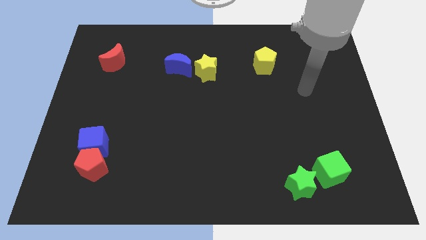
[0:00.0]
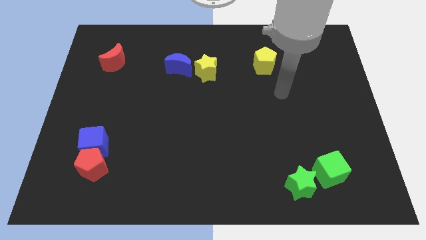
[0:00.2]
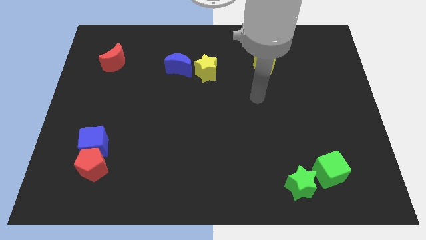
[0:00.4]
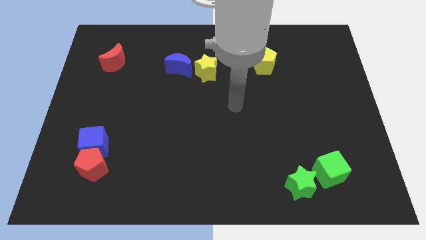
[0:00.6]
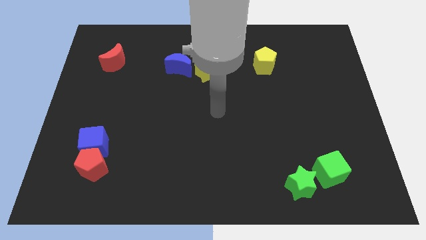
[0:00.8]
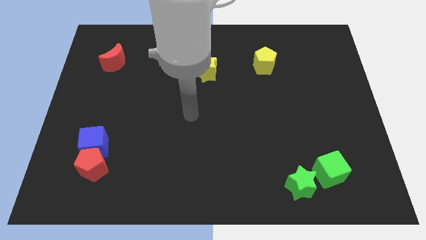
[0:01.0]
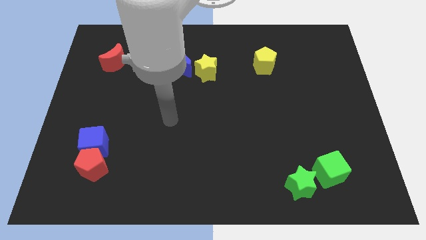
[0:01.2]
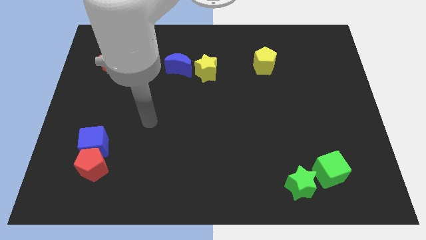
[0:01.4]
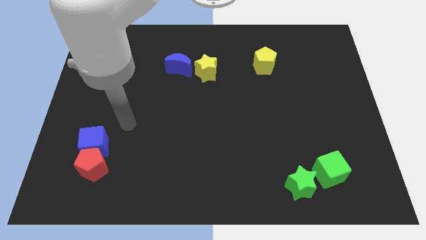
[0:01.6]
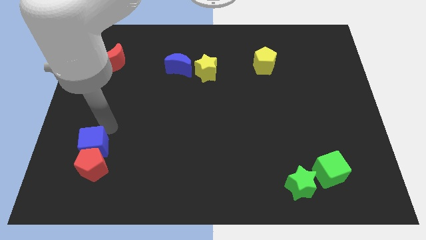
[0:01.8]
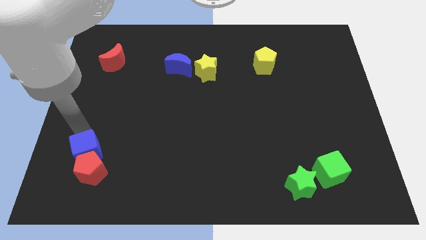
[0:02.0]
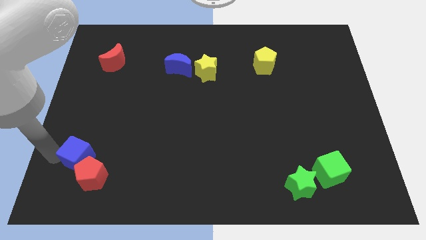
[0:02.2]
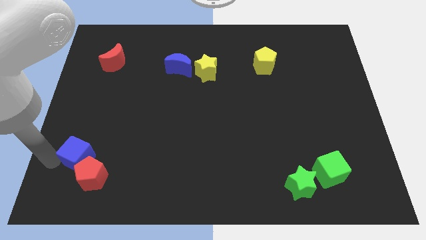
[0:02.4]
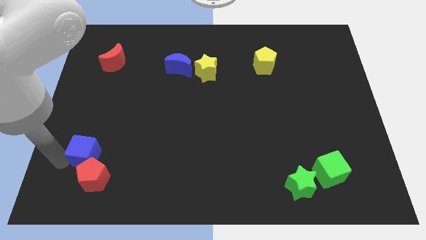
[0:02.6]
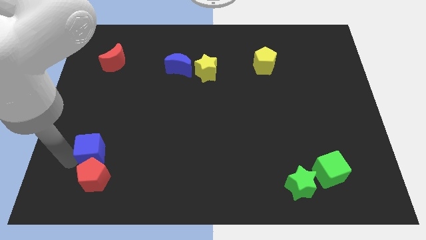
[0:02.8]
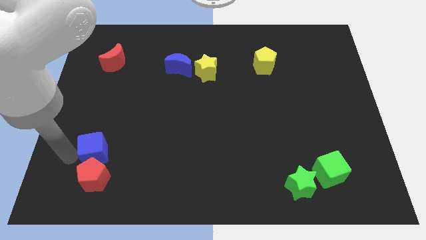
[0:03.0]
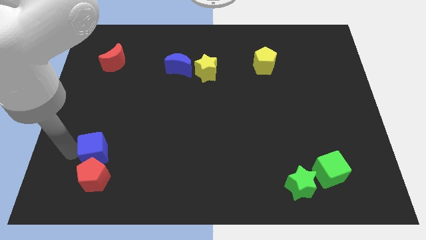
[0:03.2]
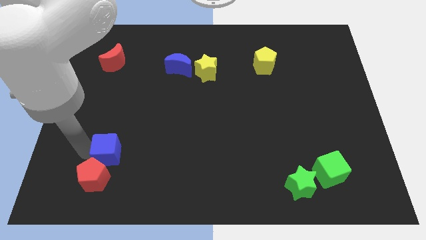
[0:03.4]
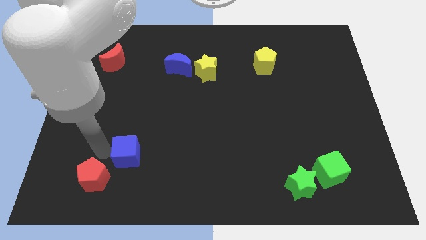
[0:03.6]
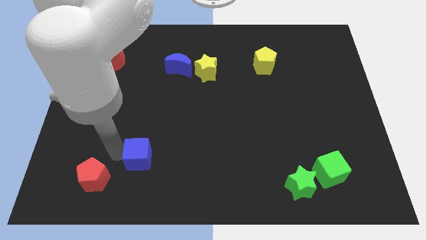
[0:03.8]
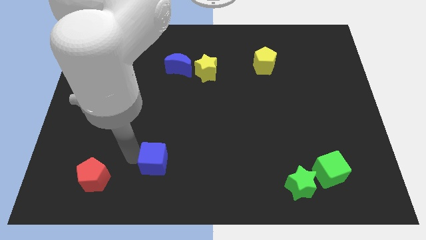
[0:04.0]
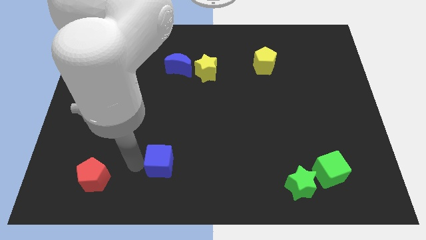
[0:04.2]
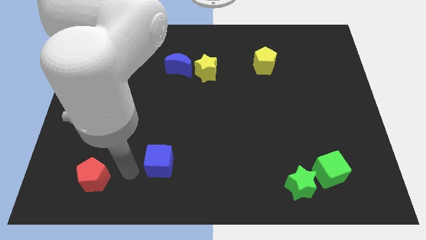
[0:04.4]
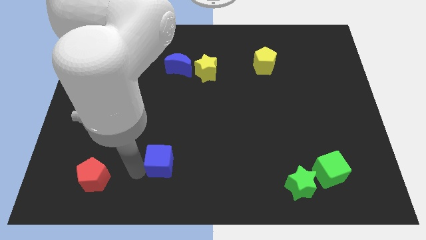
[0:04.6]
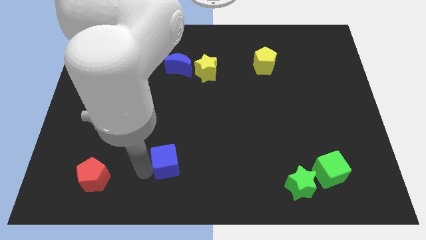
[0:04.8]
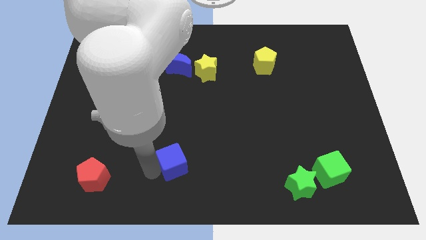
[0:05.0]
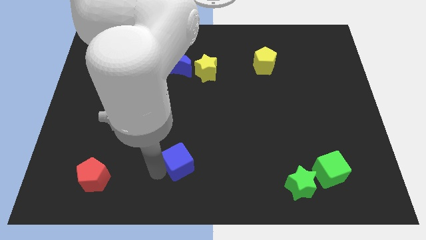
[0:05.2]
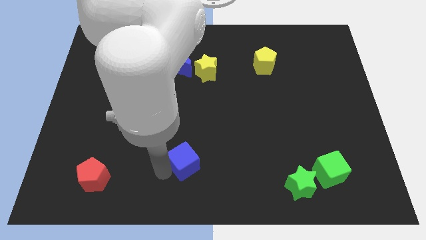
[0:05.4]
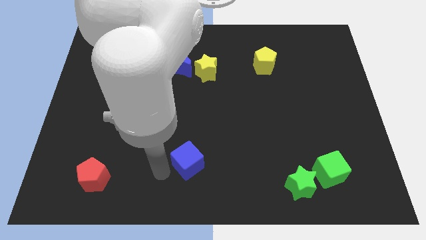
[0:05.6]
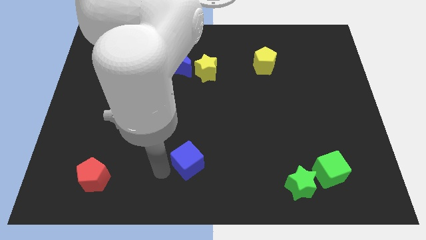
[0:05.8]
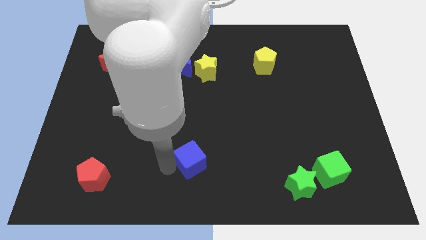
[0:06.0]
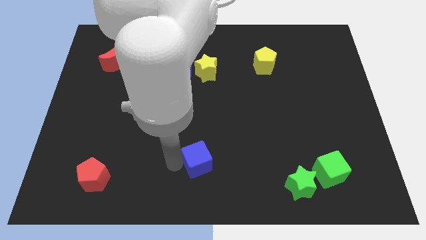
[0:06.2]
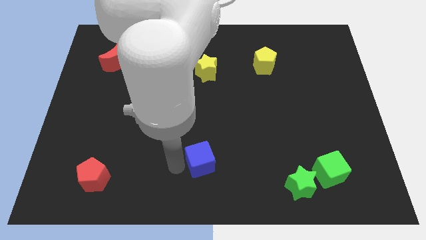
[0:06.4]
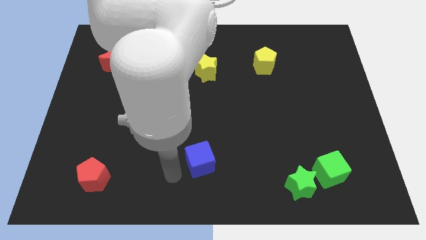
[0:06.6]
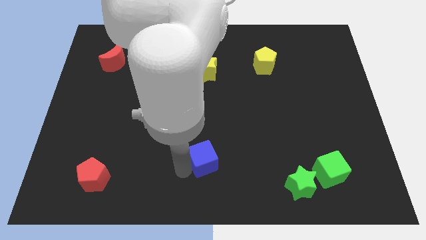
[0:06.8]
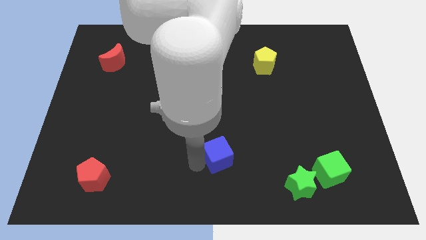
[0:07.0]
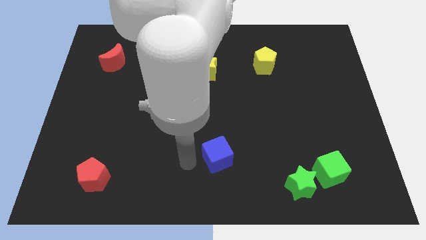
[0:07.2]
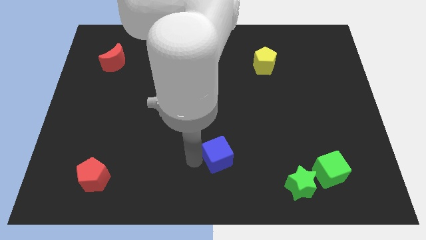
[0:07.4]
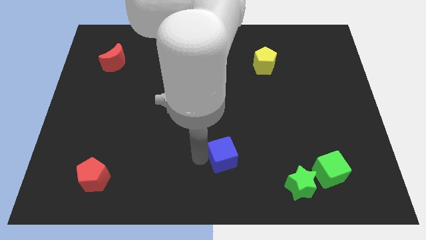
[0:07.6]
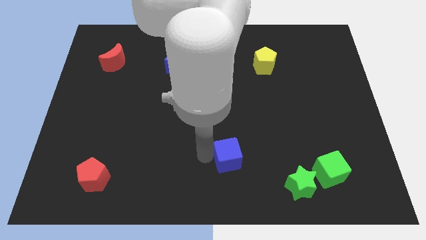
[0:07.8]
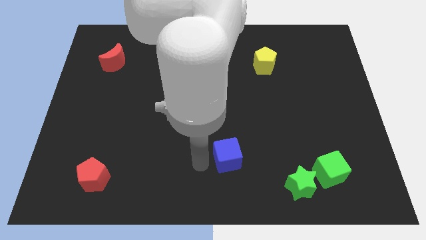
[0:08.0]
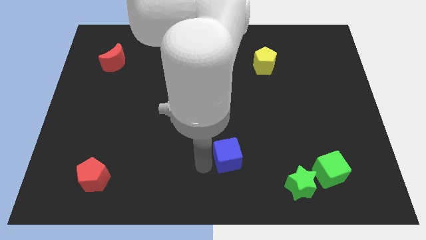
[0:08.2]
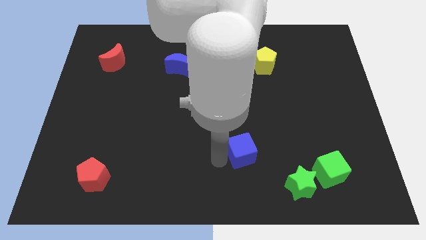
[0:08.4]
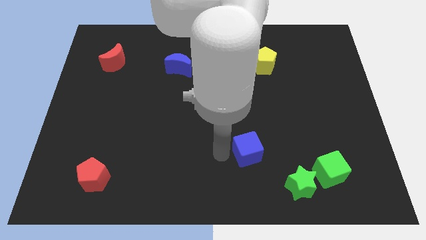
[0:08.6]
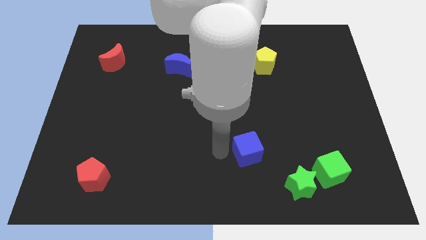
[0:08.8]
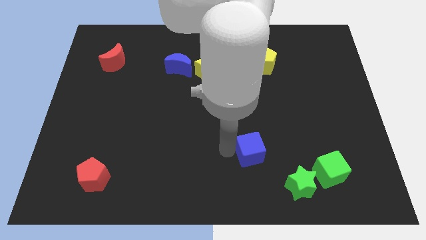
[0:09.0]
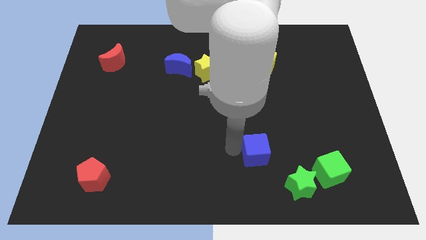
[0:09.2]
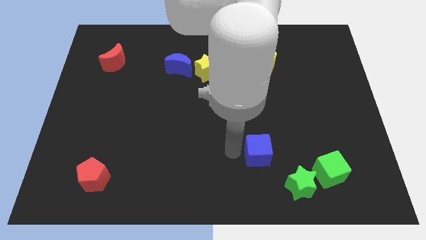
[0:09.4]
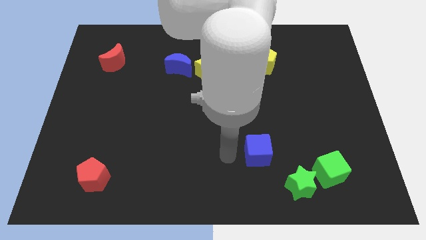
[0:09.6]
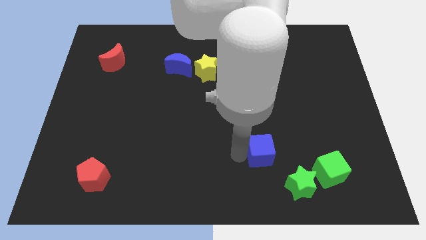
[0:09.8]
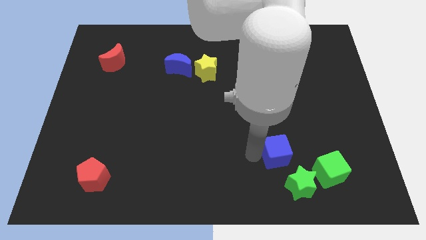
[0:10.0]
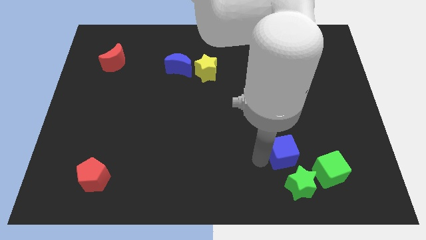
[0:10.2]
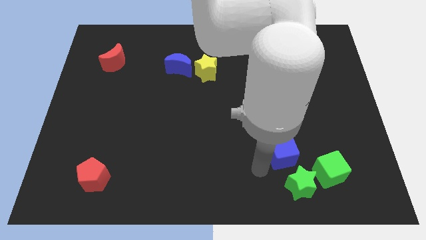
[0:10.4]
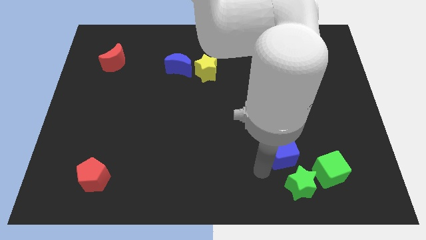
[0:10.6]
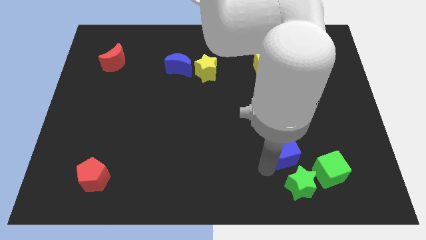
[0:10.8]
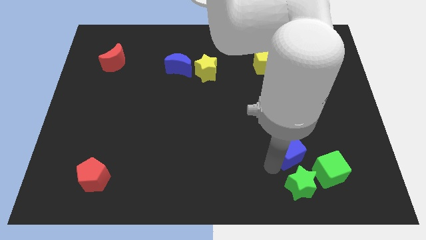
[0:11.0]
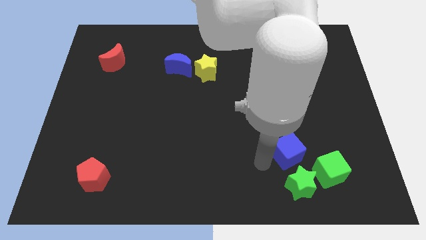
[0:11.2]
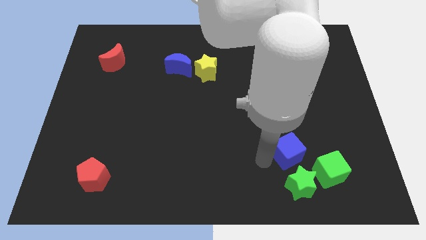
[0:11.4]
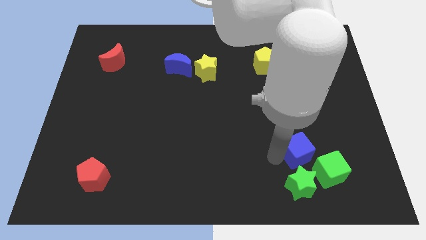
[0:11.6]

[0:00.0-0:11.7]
push the blue cube to the top right of the green star

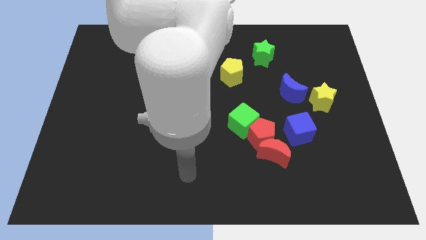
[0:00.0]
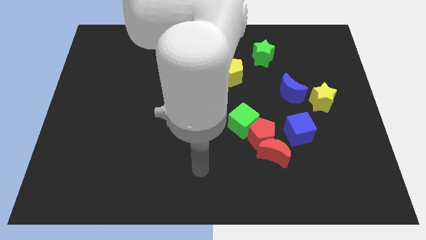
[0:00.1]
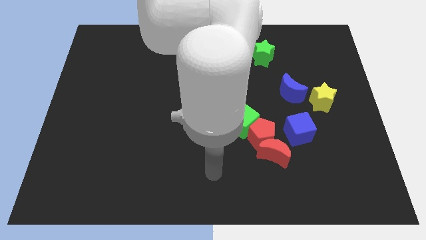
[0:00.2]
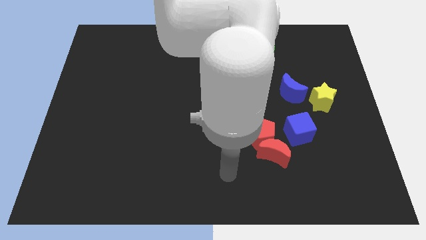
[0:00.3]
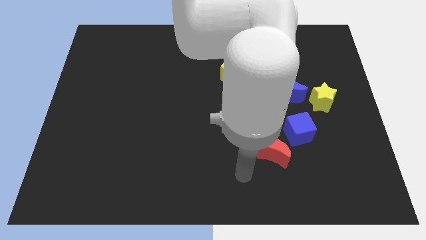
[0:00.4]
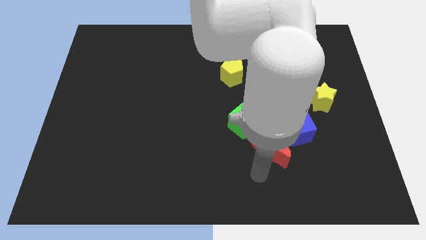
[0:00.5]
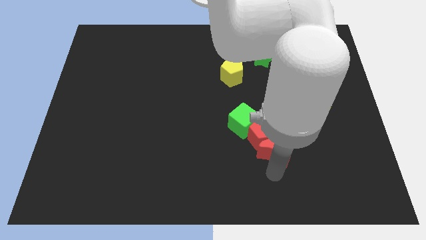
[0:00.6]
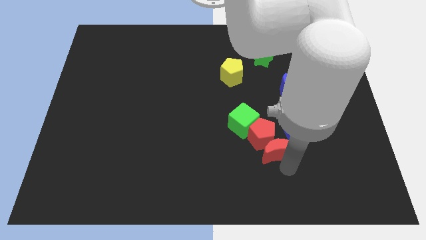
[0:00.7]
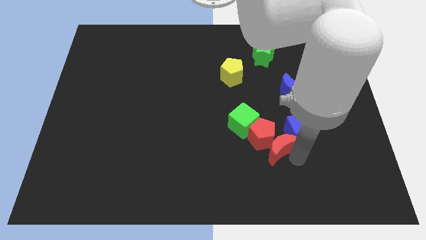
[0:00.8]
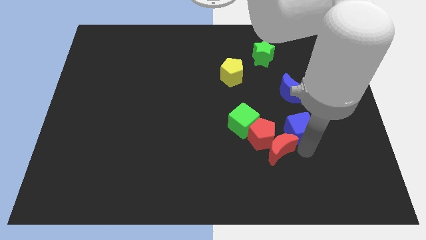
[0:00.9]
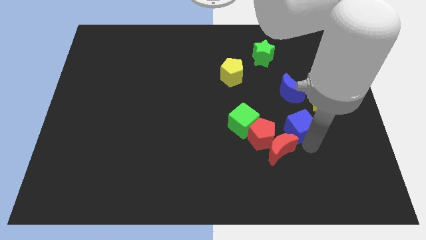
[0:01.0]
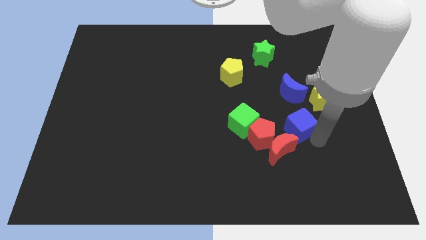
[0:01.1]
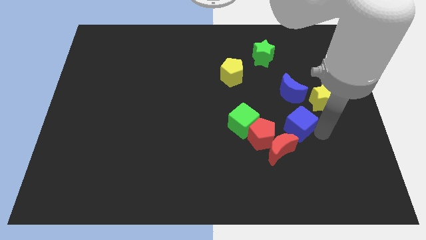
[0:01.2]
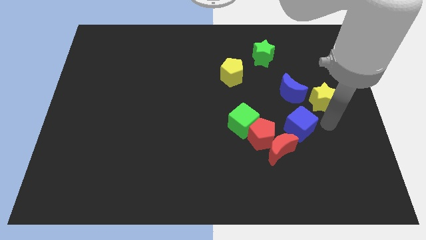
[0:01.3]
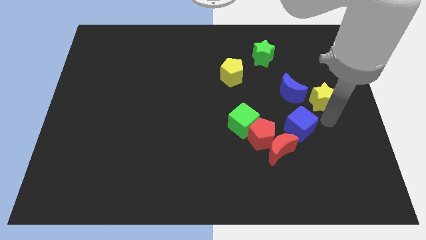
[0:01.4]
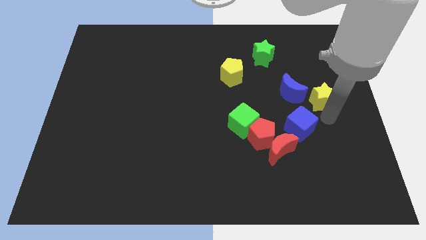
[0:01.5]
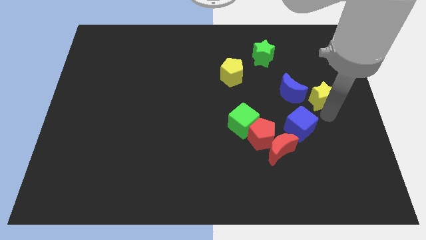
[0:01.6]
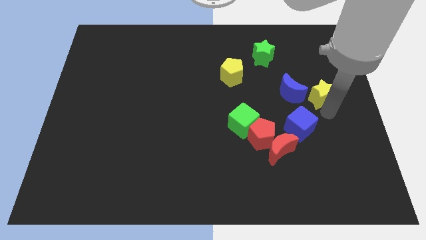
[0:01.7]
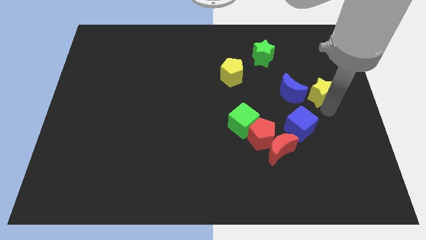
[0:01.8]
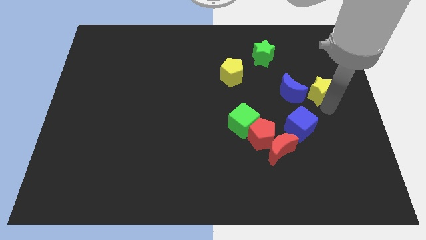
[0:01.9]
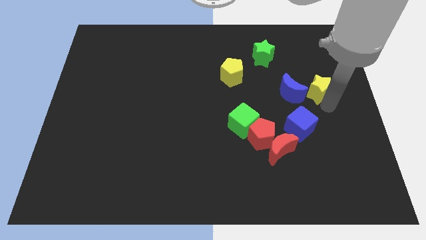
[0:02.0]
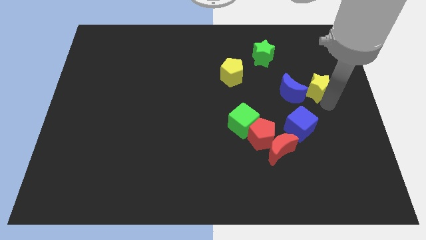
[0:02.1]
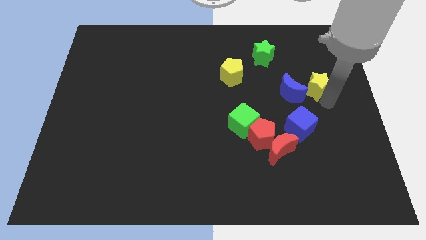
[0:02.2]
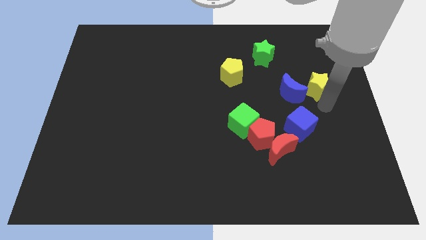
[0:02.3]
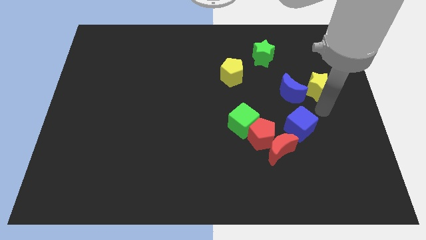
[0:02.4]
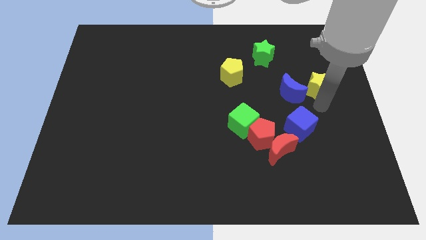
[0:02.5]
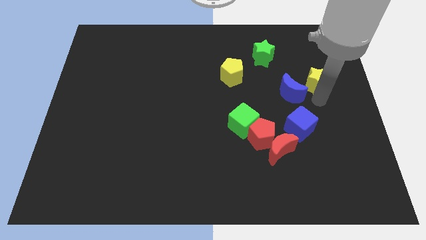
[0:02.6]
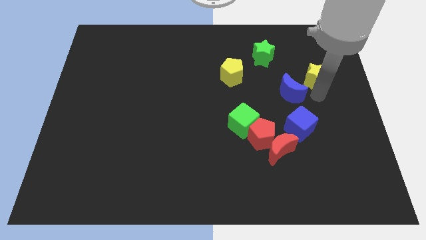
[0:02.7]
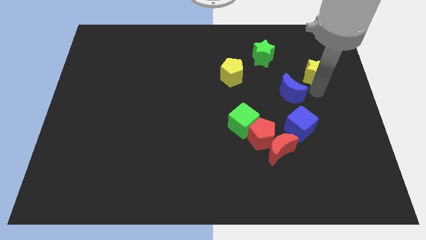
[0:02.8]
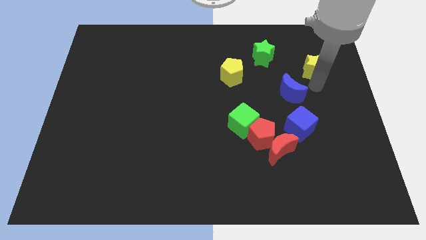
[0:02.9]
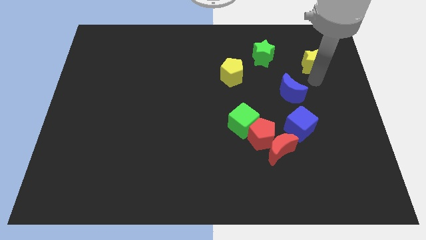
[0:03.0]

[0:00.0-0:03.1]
push the yellow star just right of the green star
